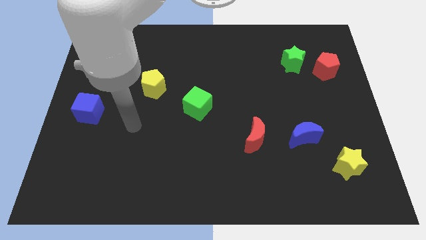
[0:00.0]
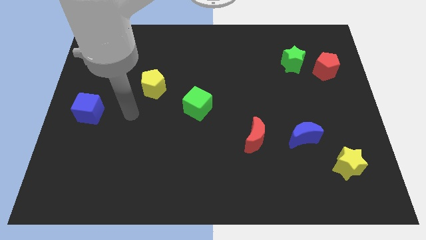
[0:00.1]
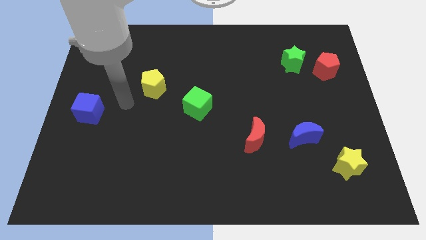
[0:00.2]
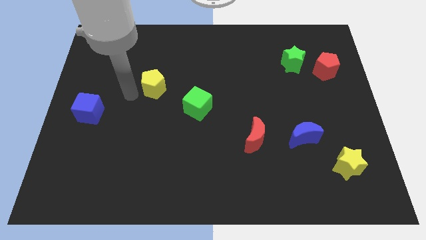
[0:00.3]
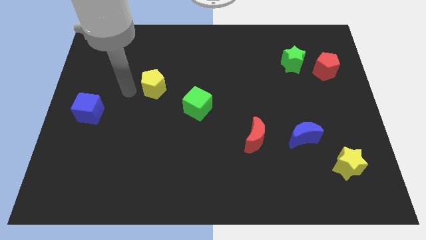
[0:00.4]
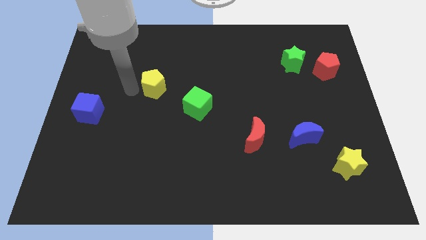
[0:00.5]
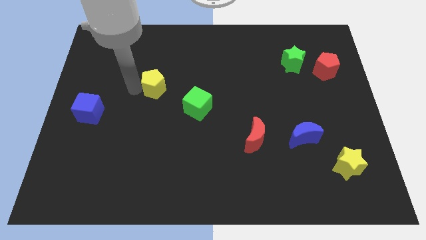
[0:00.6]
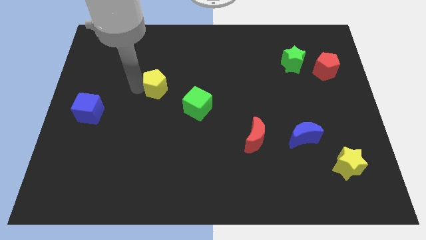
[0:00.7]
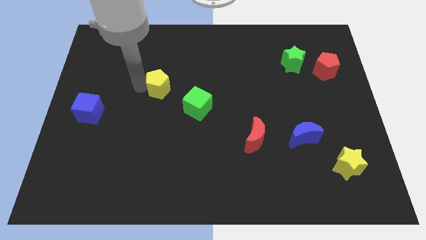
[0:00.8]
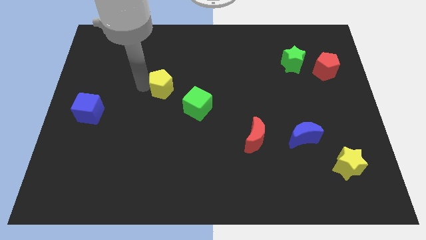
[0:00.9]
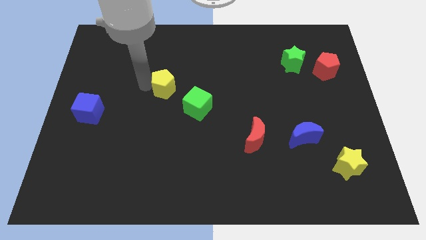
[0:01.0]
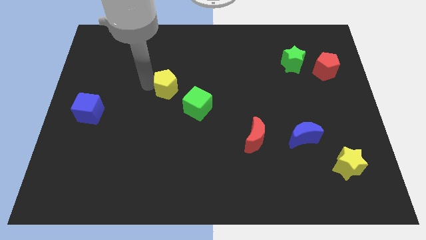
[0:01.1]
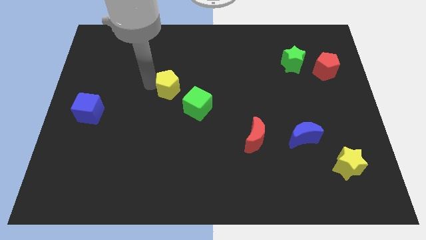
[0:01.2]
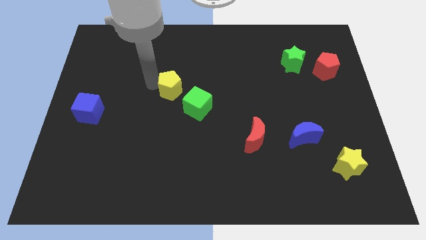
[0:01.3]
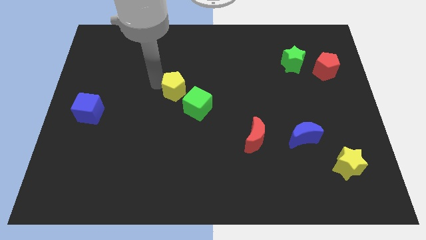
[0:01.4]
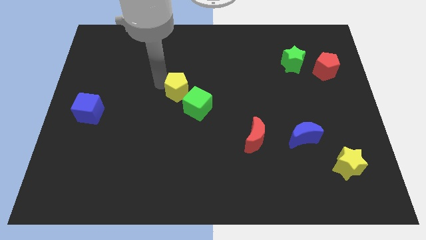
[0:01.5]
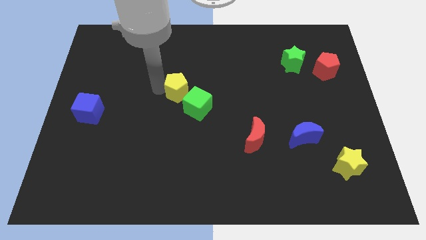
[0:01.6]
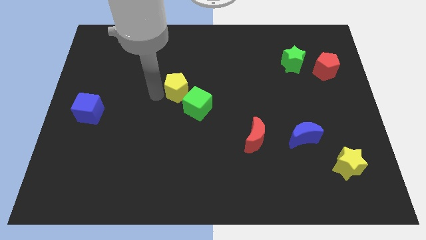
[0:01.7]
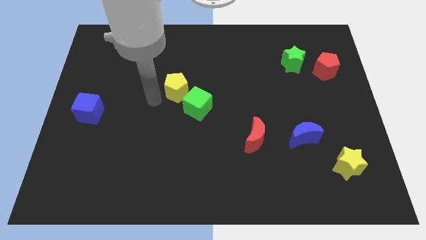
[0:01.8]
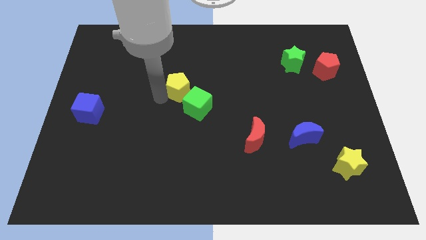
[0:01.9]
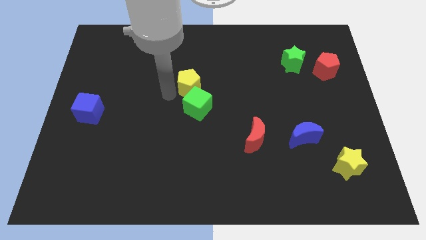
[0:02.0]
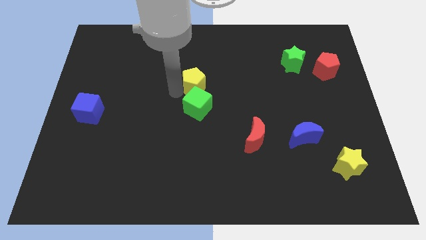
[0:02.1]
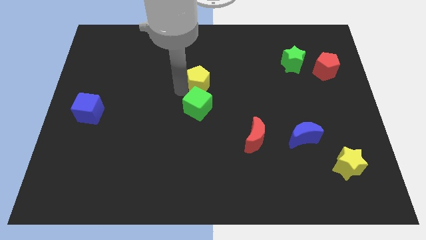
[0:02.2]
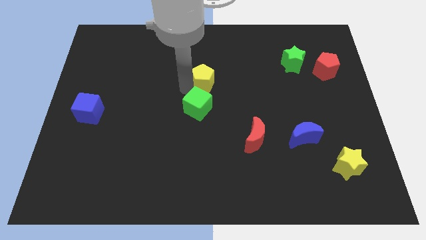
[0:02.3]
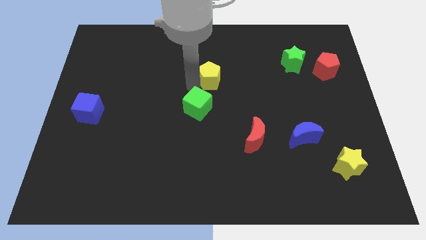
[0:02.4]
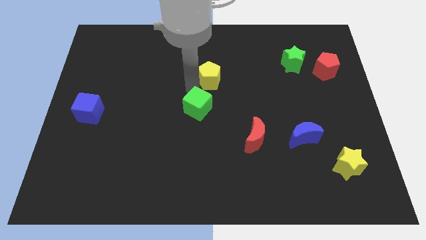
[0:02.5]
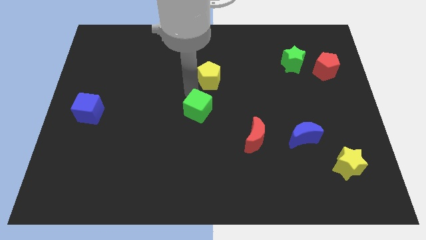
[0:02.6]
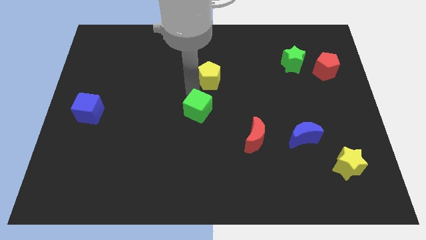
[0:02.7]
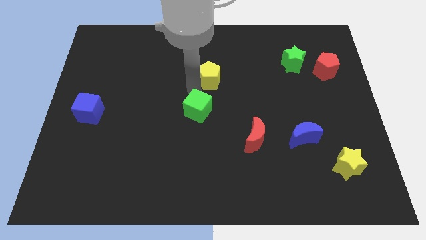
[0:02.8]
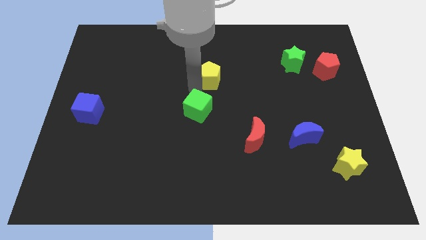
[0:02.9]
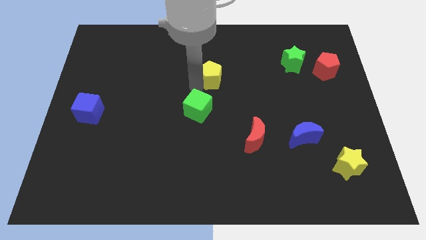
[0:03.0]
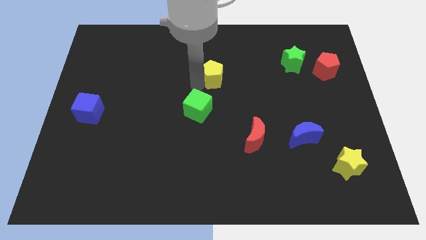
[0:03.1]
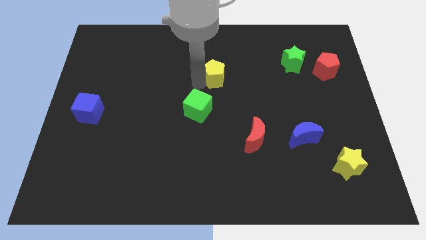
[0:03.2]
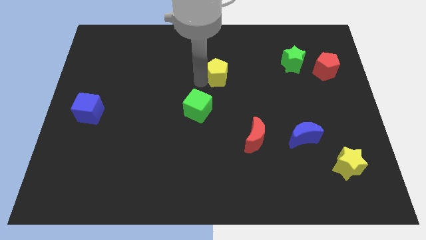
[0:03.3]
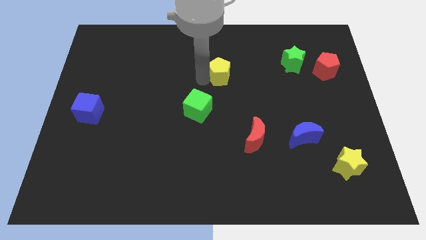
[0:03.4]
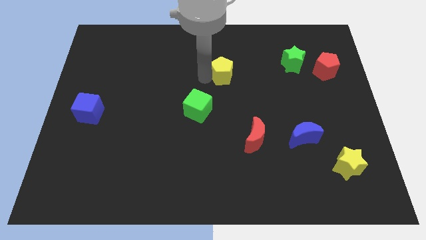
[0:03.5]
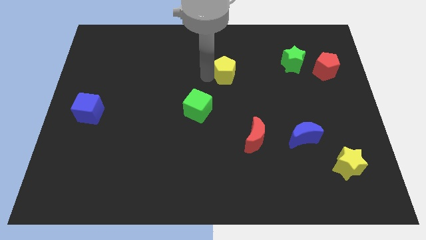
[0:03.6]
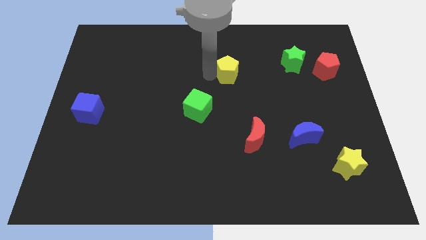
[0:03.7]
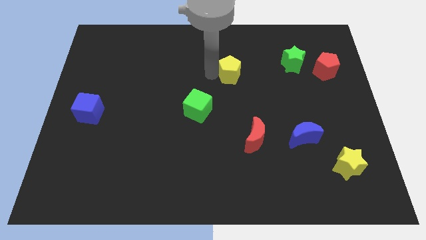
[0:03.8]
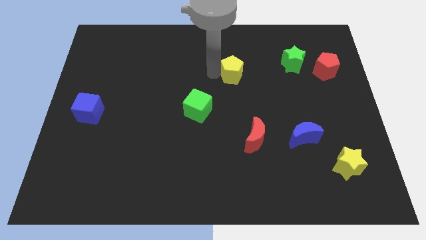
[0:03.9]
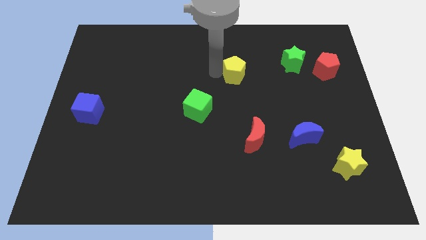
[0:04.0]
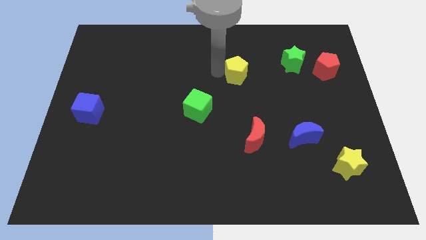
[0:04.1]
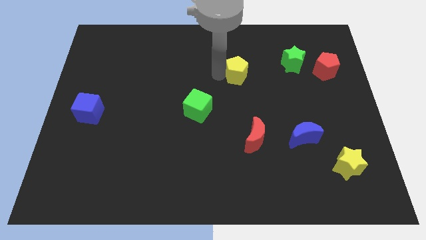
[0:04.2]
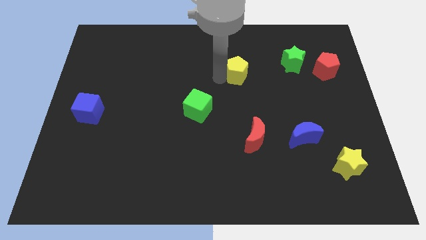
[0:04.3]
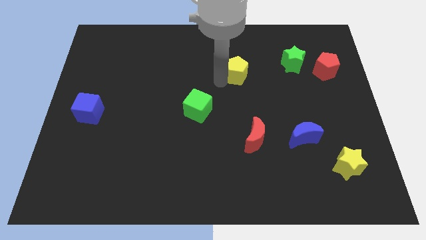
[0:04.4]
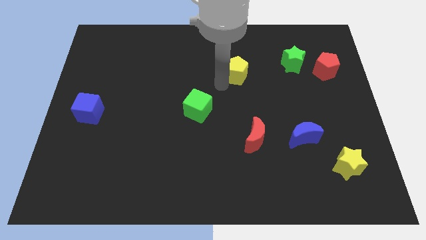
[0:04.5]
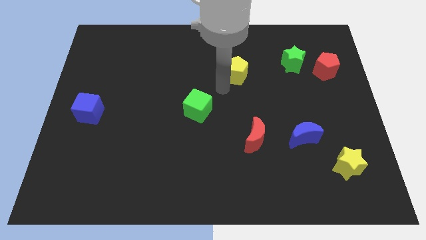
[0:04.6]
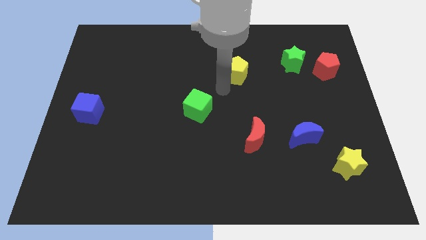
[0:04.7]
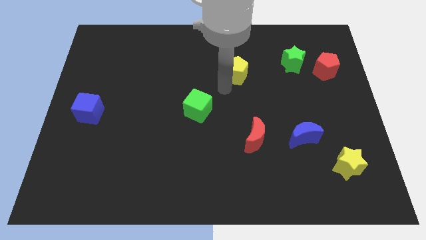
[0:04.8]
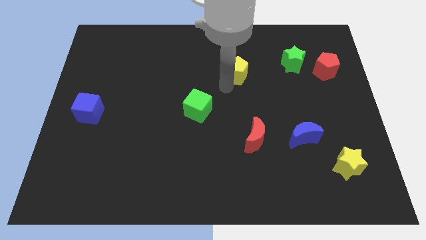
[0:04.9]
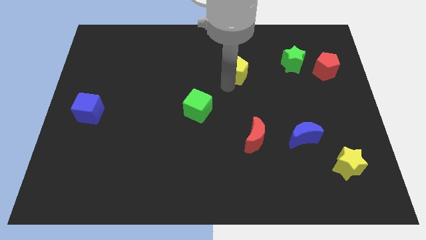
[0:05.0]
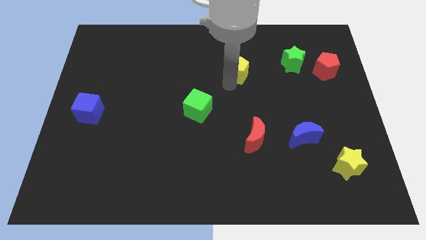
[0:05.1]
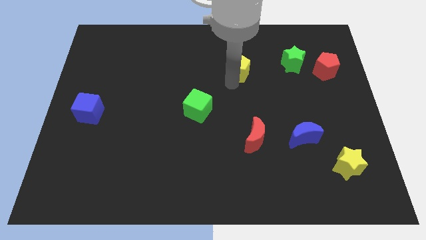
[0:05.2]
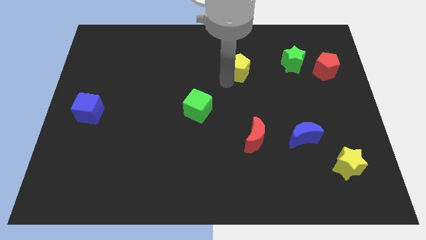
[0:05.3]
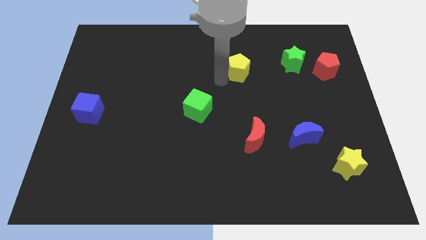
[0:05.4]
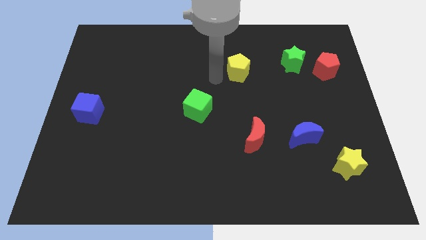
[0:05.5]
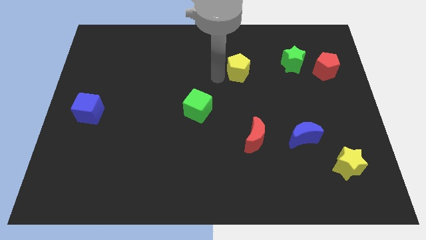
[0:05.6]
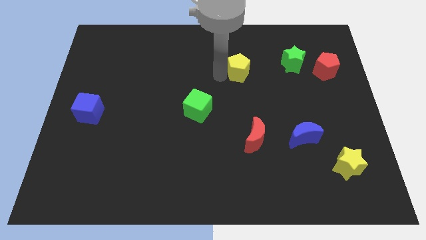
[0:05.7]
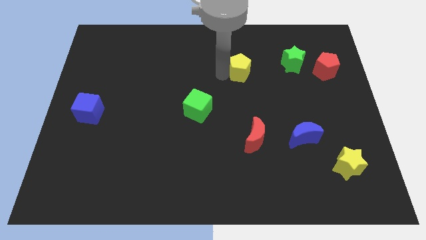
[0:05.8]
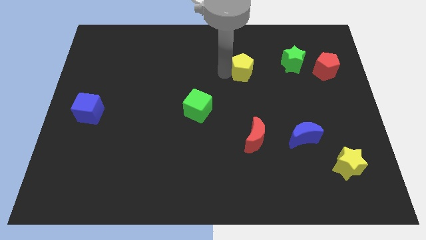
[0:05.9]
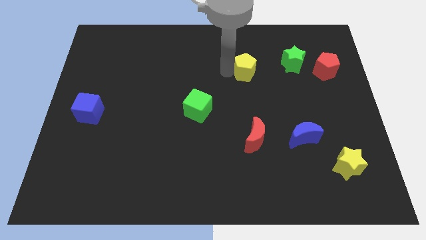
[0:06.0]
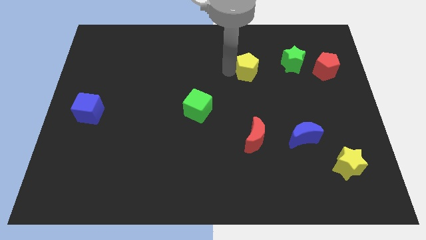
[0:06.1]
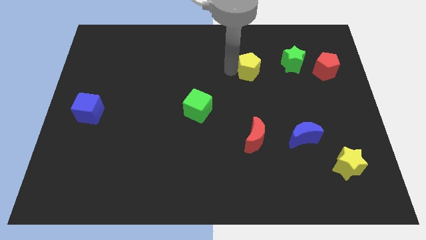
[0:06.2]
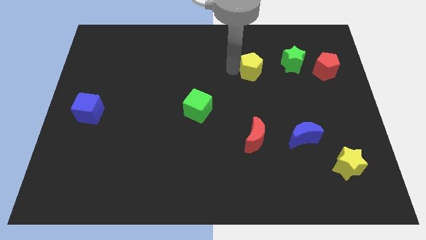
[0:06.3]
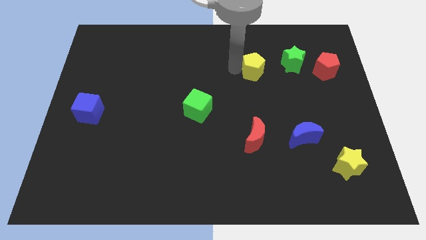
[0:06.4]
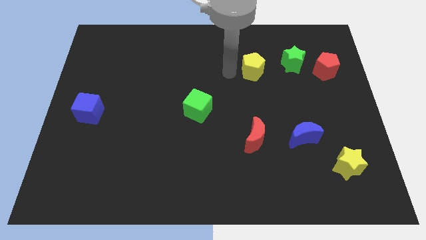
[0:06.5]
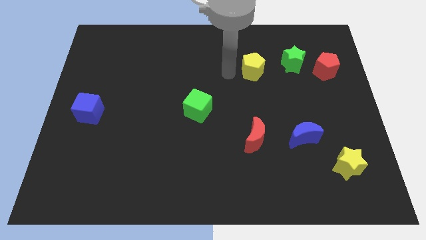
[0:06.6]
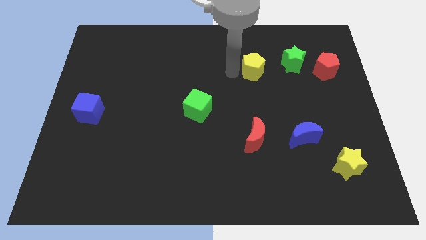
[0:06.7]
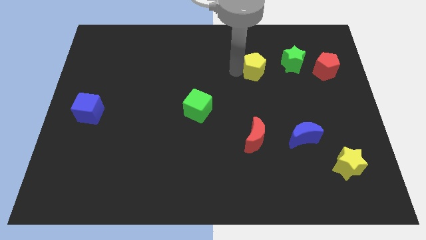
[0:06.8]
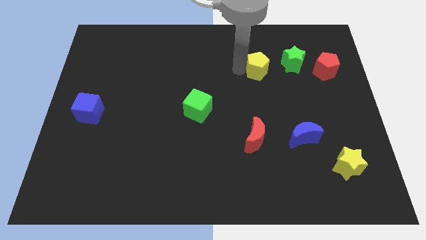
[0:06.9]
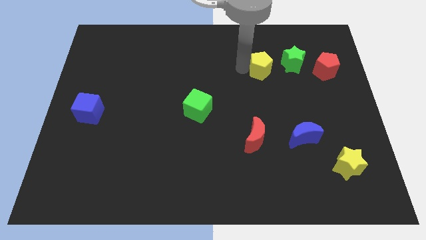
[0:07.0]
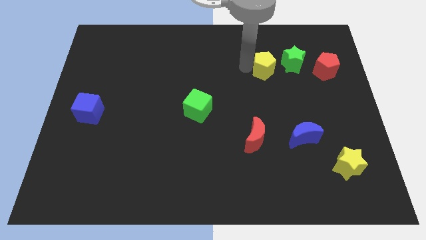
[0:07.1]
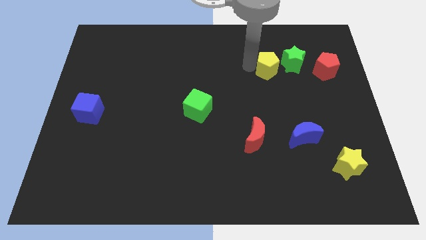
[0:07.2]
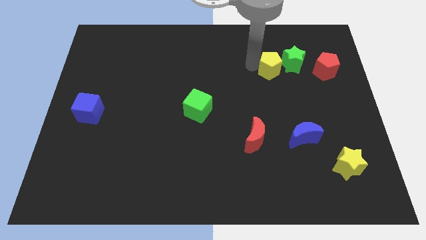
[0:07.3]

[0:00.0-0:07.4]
move the yellow pentagon to the green star

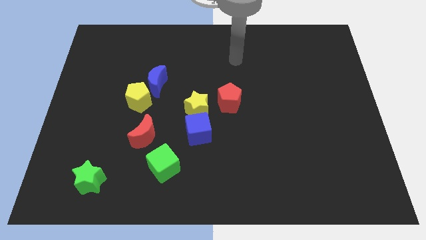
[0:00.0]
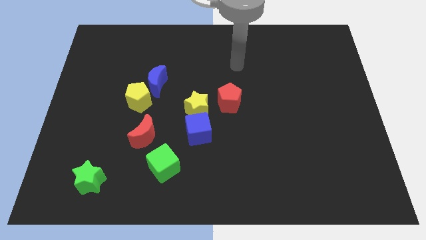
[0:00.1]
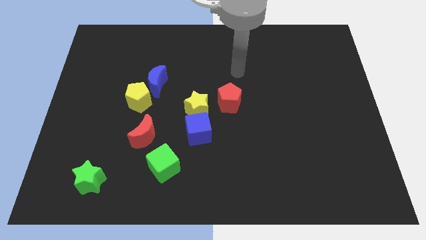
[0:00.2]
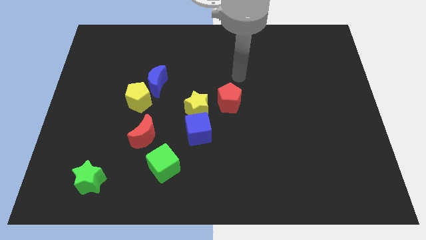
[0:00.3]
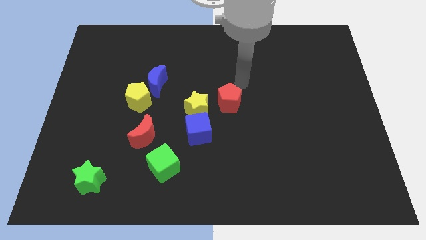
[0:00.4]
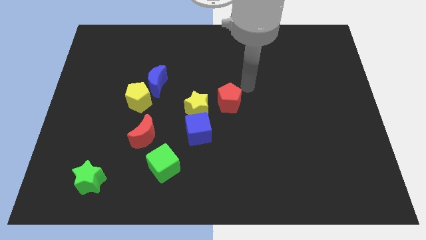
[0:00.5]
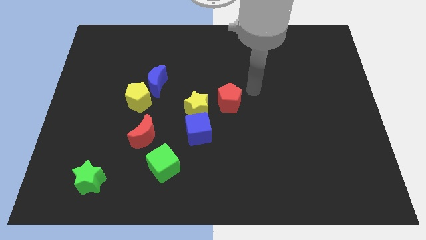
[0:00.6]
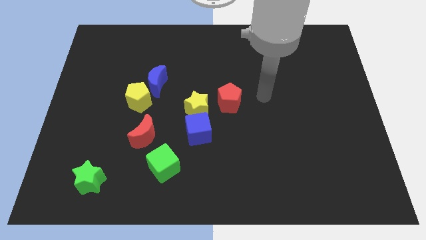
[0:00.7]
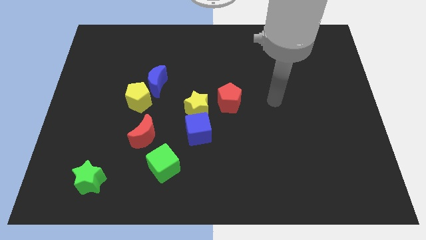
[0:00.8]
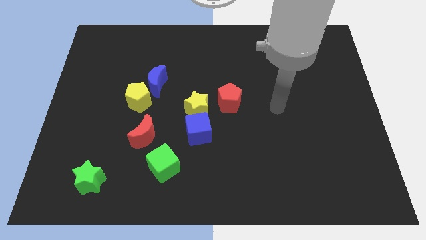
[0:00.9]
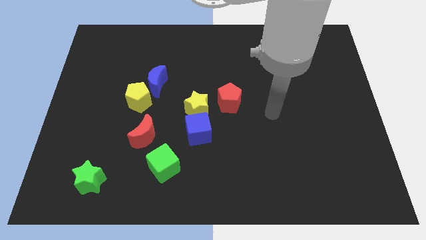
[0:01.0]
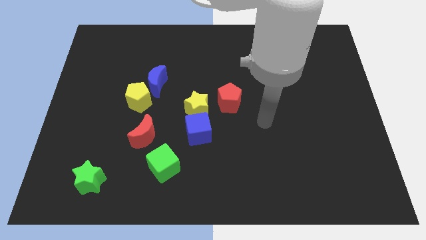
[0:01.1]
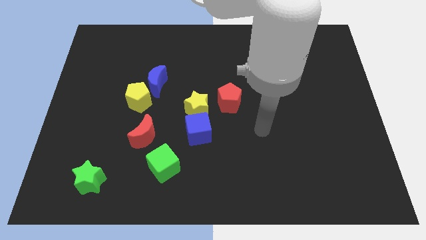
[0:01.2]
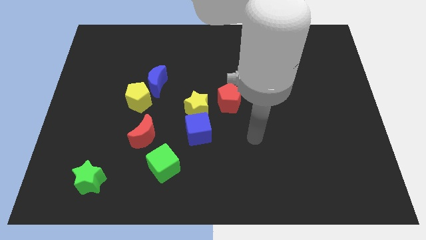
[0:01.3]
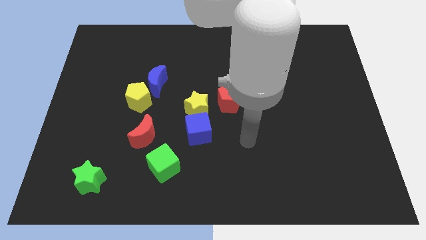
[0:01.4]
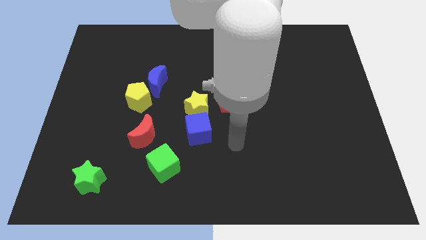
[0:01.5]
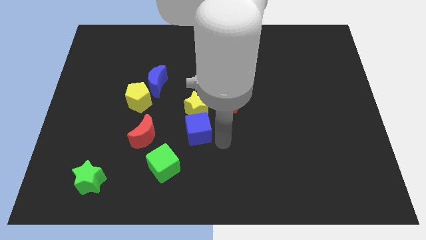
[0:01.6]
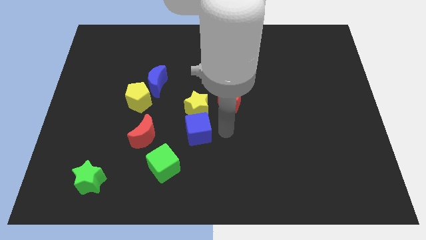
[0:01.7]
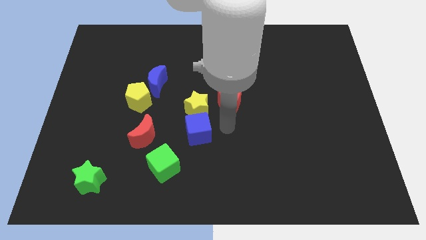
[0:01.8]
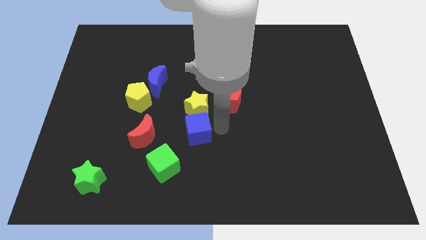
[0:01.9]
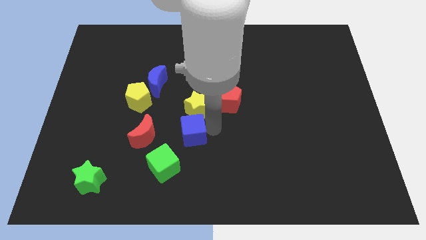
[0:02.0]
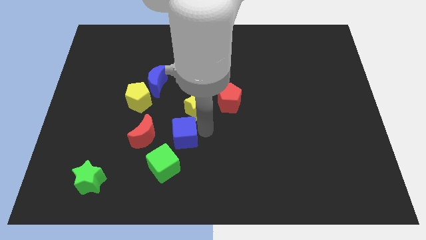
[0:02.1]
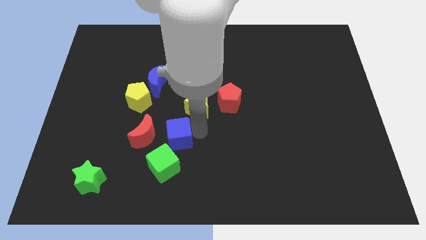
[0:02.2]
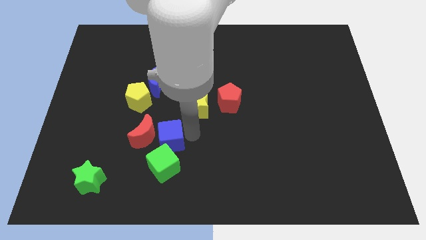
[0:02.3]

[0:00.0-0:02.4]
put the blue cube towards the red moon
